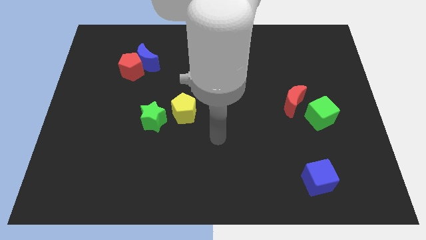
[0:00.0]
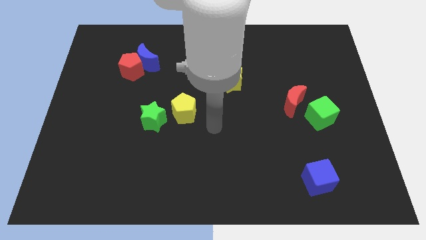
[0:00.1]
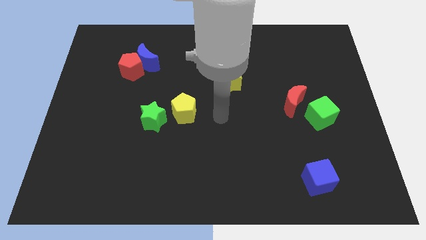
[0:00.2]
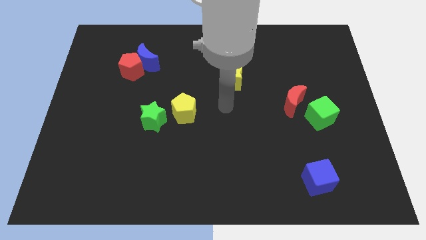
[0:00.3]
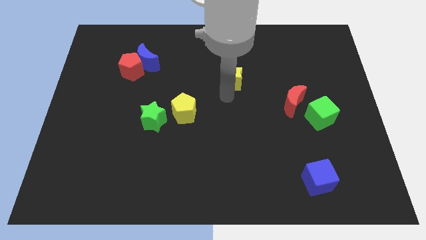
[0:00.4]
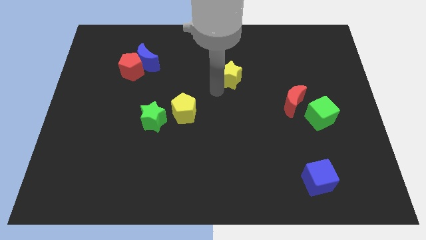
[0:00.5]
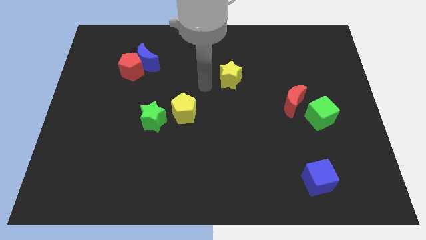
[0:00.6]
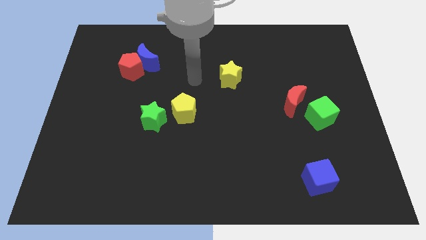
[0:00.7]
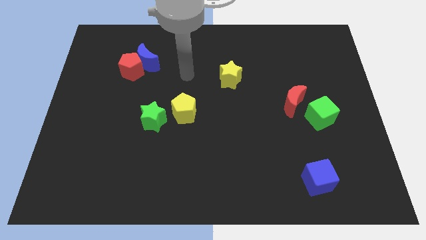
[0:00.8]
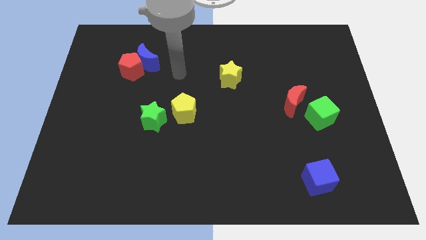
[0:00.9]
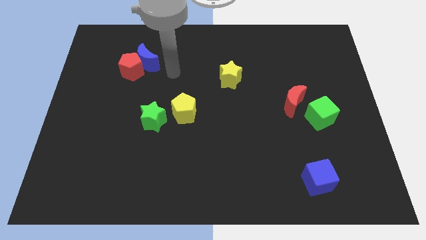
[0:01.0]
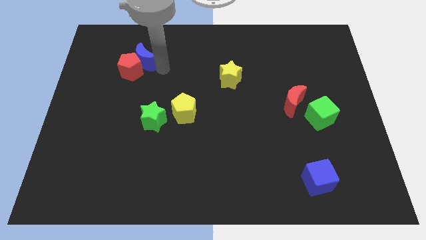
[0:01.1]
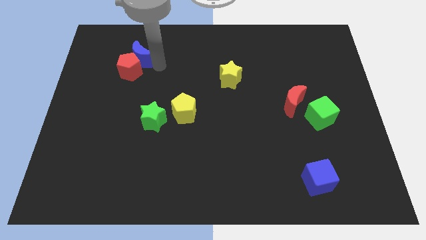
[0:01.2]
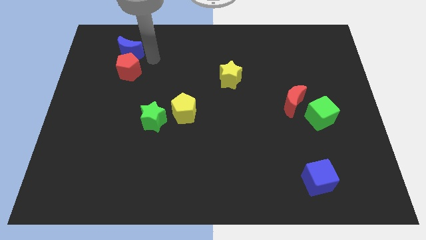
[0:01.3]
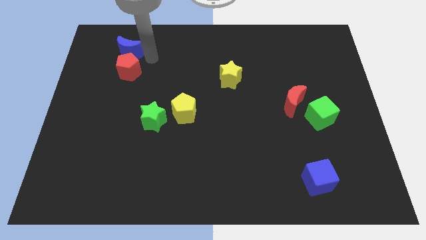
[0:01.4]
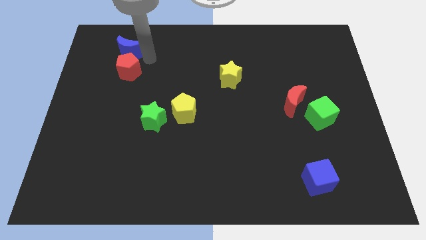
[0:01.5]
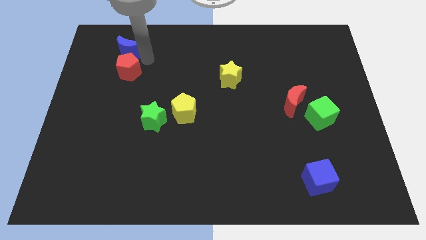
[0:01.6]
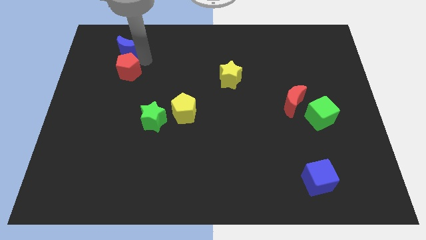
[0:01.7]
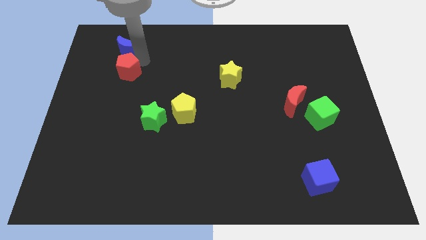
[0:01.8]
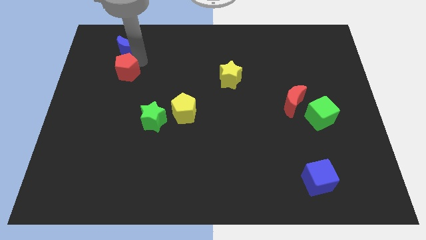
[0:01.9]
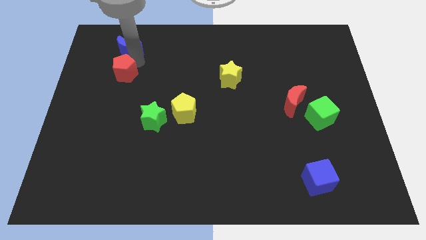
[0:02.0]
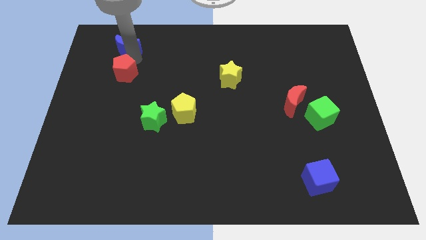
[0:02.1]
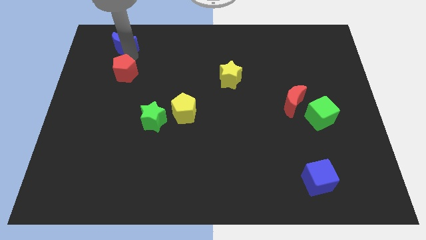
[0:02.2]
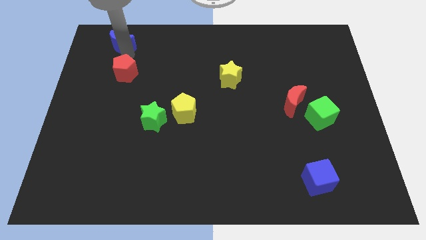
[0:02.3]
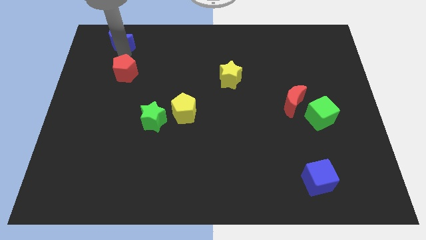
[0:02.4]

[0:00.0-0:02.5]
pull the red pentagon apart from the blue moon

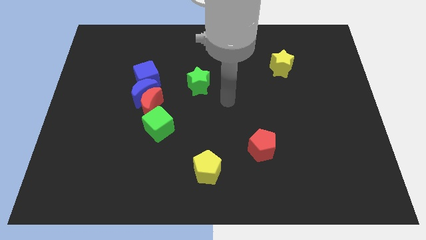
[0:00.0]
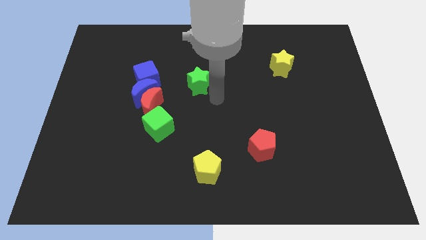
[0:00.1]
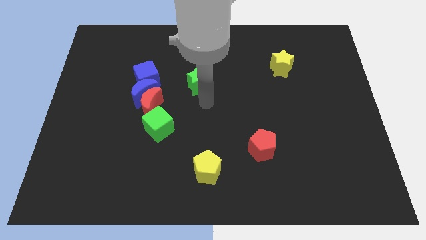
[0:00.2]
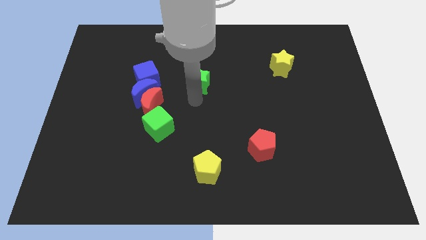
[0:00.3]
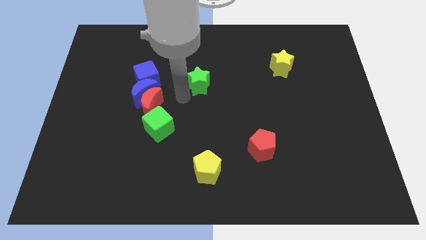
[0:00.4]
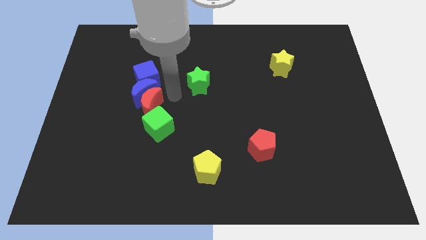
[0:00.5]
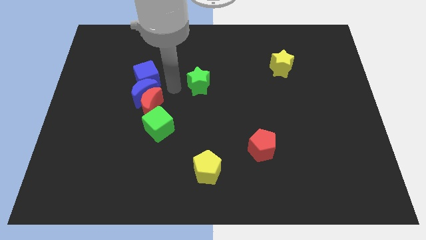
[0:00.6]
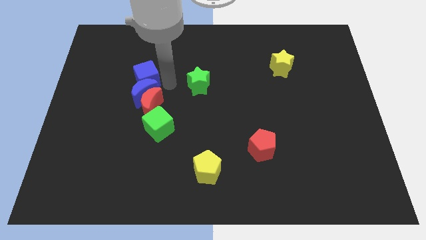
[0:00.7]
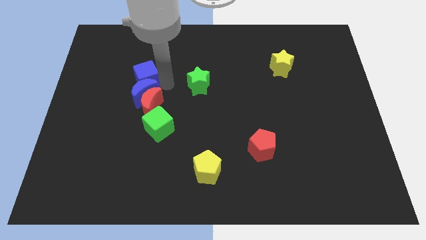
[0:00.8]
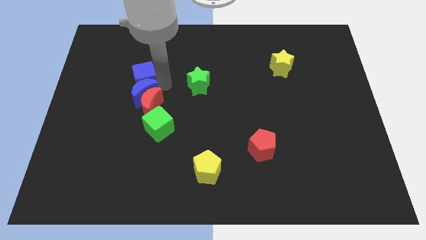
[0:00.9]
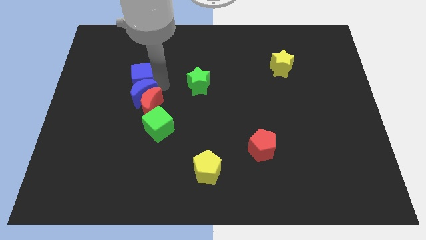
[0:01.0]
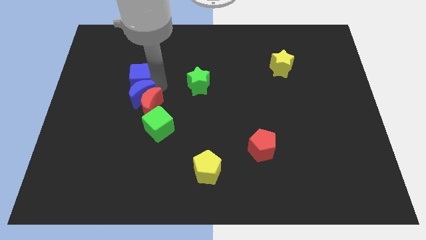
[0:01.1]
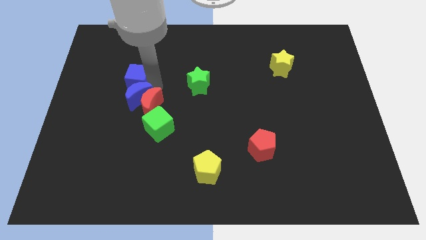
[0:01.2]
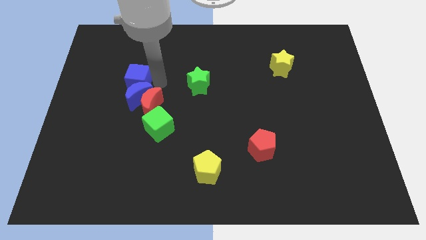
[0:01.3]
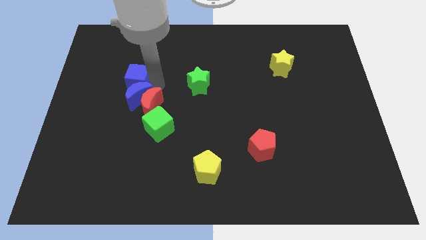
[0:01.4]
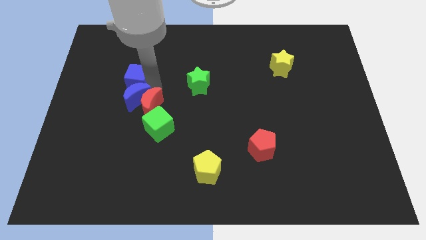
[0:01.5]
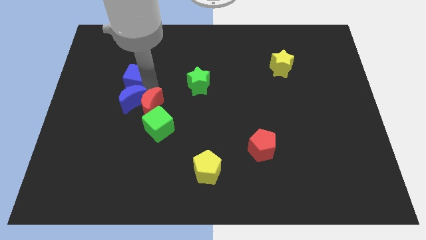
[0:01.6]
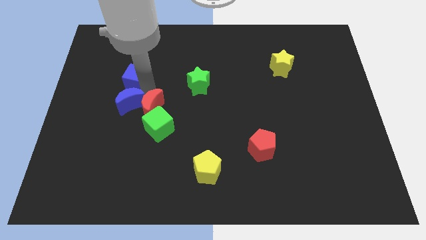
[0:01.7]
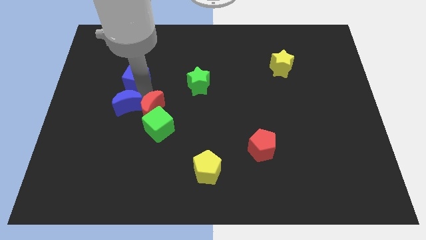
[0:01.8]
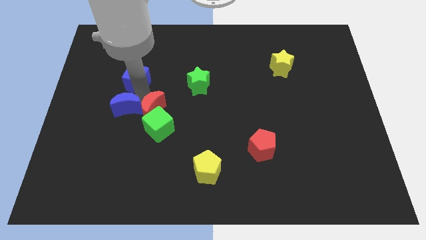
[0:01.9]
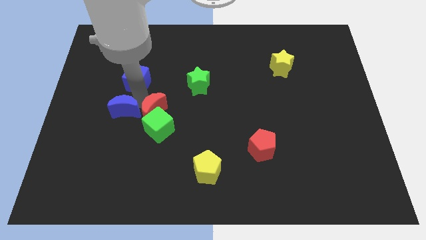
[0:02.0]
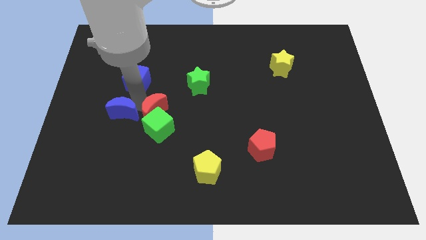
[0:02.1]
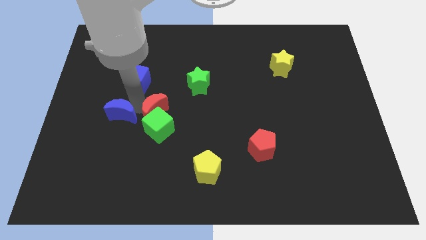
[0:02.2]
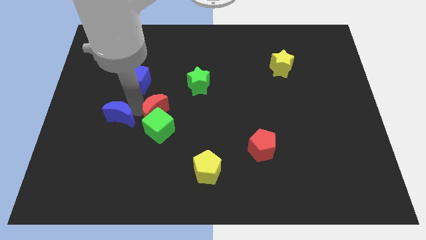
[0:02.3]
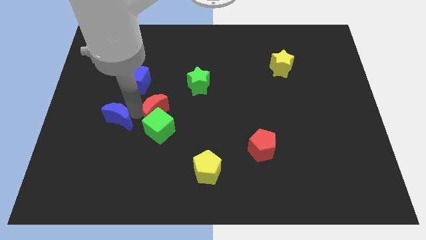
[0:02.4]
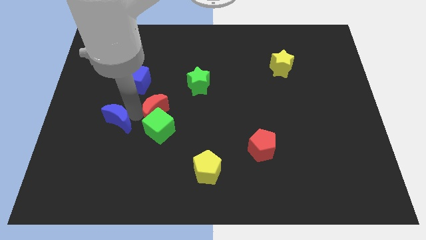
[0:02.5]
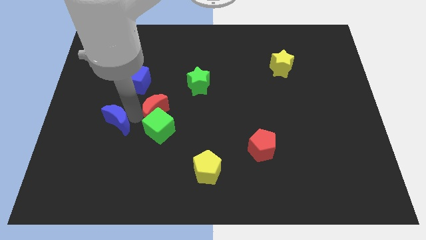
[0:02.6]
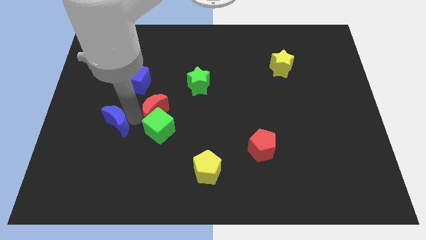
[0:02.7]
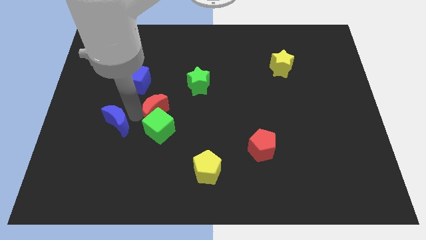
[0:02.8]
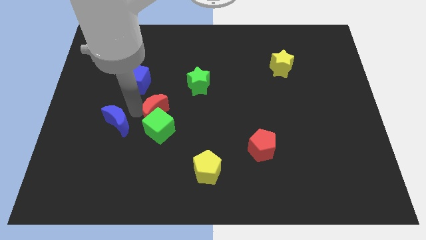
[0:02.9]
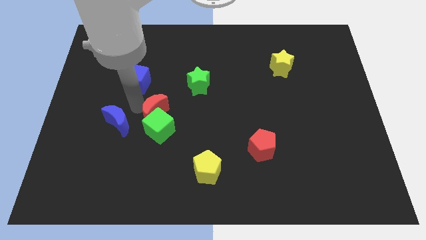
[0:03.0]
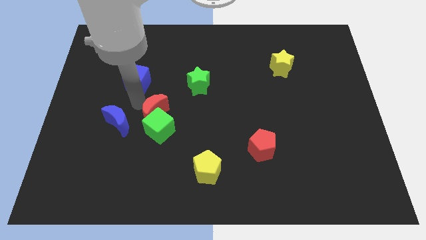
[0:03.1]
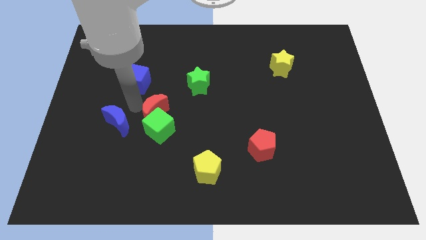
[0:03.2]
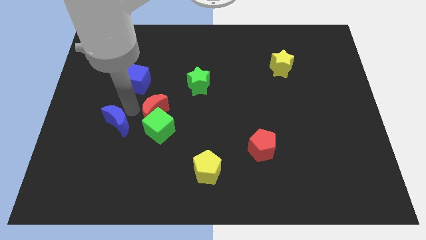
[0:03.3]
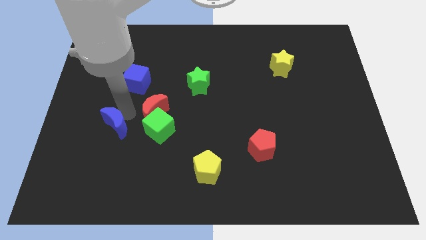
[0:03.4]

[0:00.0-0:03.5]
pull the blue moon apart from the red moon and blue cube

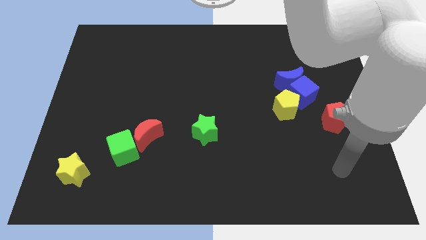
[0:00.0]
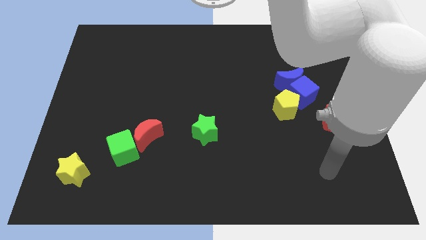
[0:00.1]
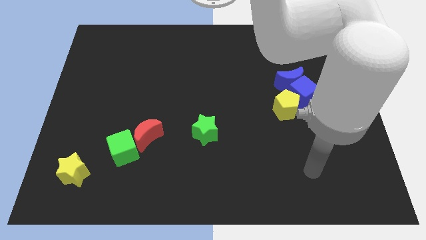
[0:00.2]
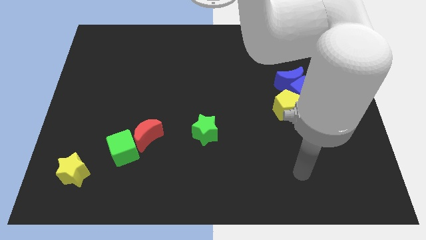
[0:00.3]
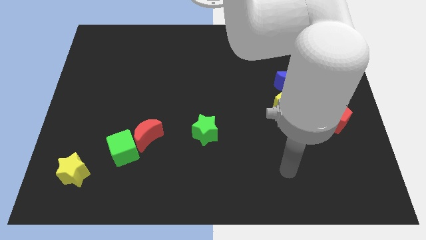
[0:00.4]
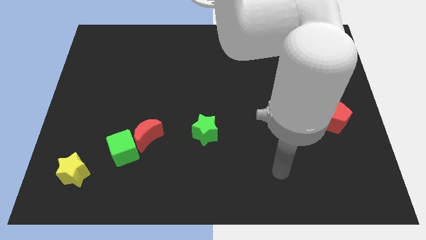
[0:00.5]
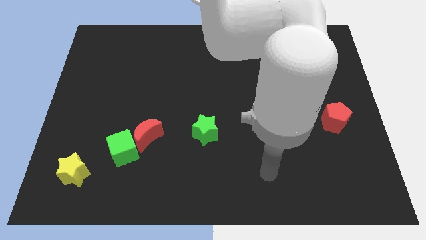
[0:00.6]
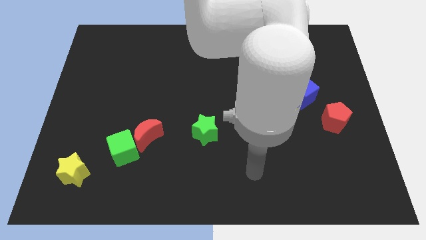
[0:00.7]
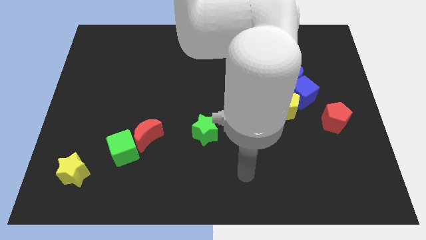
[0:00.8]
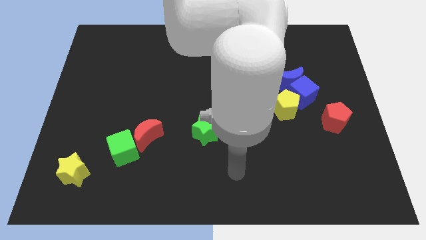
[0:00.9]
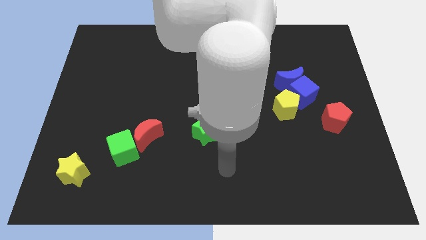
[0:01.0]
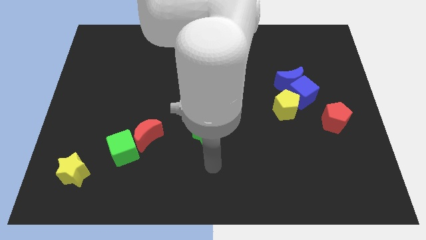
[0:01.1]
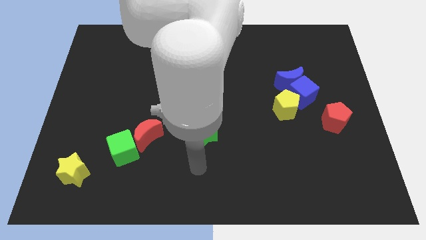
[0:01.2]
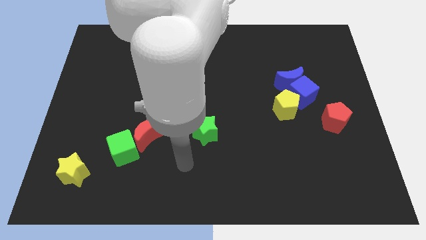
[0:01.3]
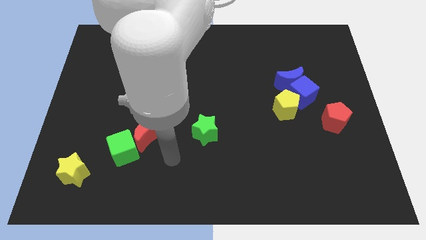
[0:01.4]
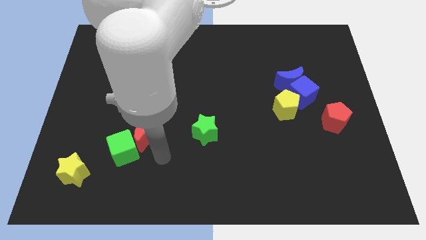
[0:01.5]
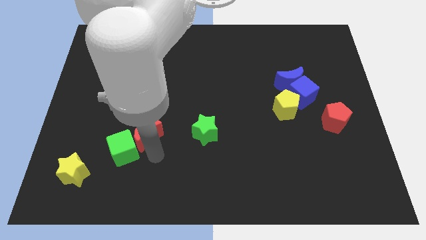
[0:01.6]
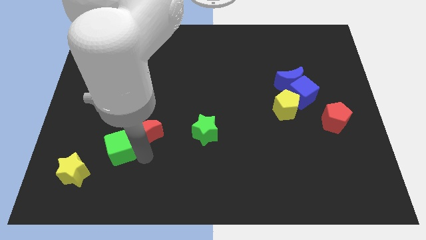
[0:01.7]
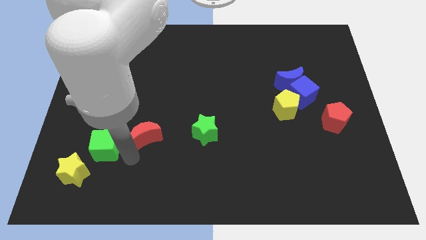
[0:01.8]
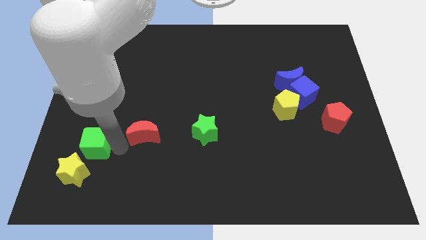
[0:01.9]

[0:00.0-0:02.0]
separate the red moon from the green cube

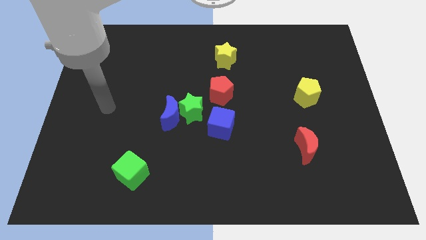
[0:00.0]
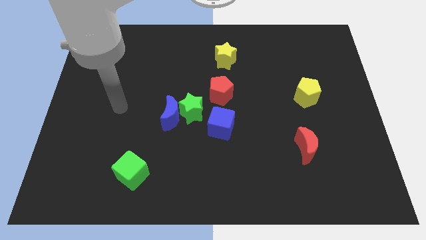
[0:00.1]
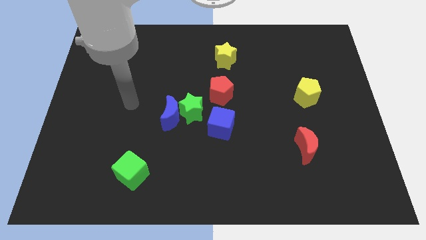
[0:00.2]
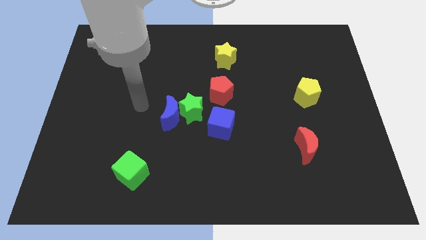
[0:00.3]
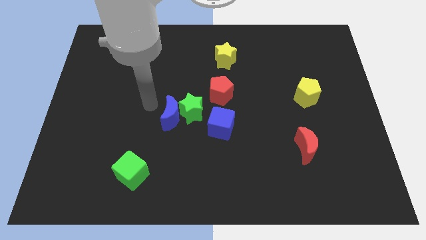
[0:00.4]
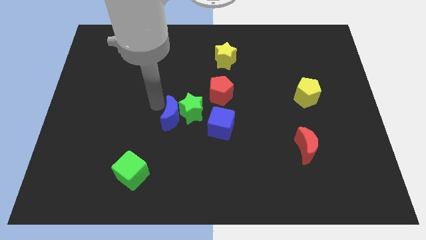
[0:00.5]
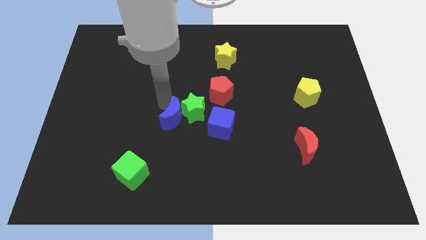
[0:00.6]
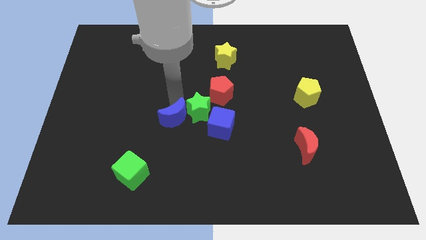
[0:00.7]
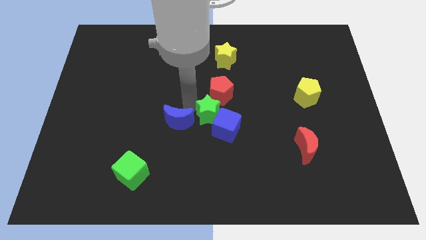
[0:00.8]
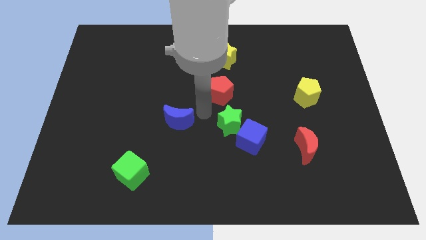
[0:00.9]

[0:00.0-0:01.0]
separate the blue moon from the green star

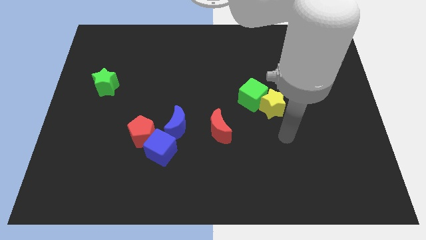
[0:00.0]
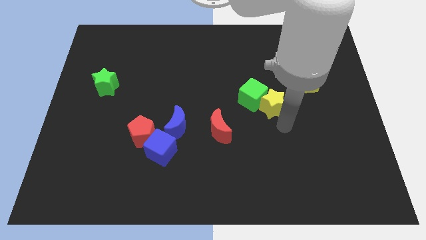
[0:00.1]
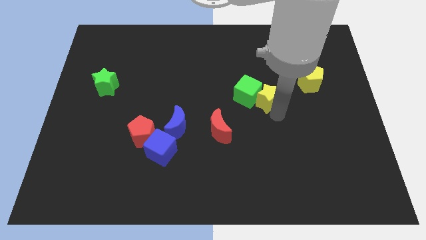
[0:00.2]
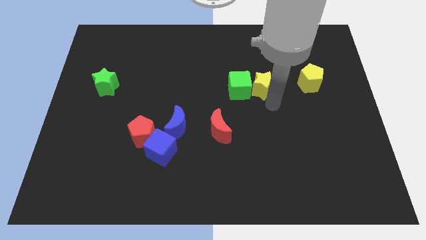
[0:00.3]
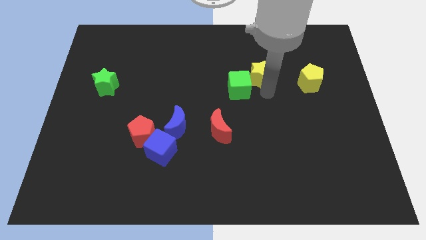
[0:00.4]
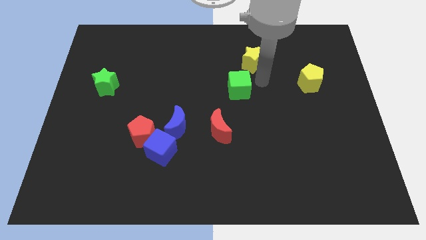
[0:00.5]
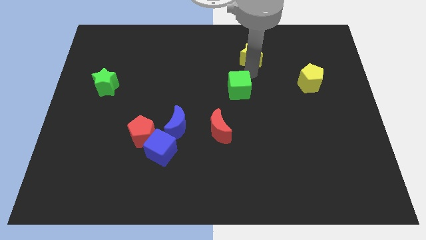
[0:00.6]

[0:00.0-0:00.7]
separate the green cube from the yellow star
